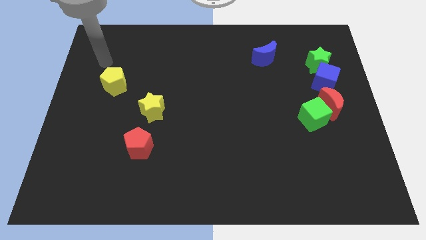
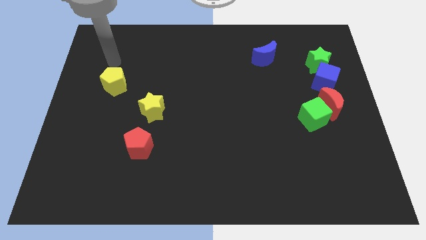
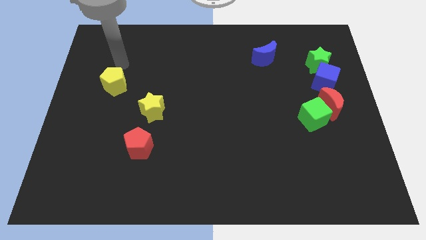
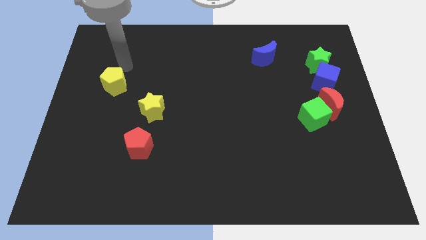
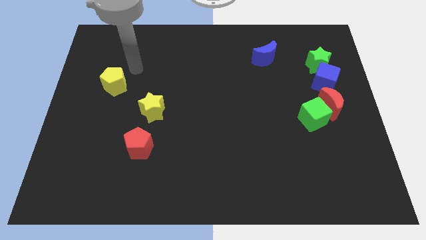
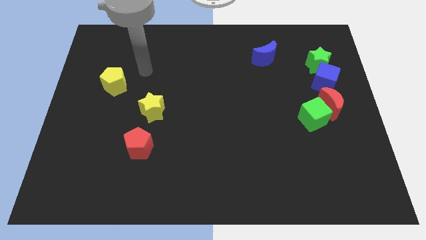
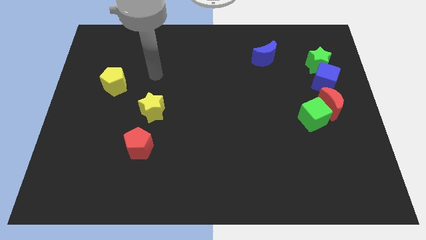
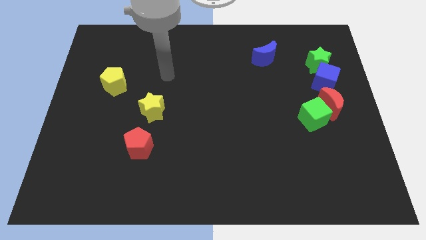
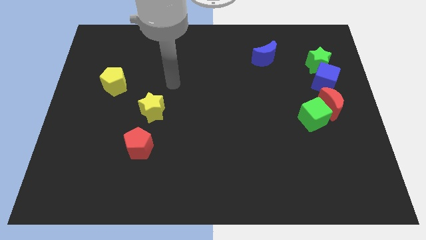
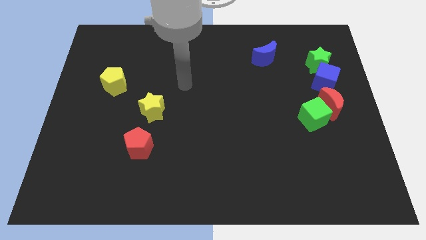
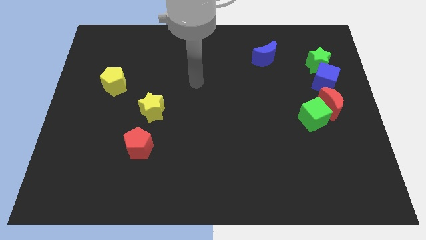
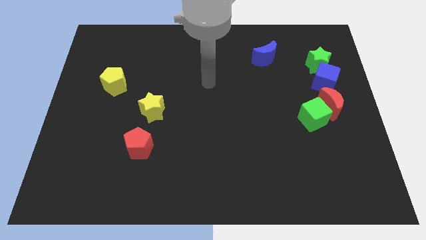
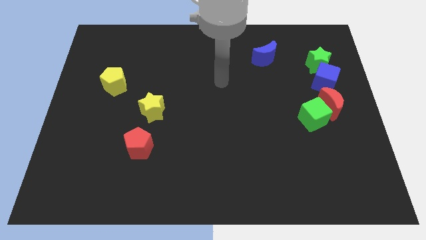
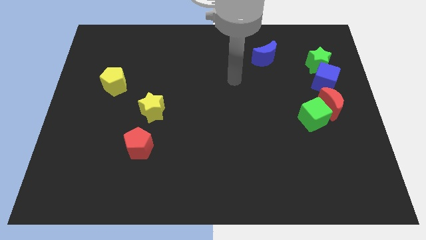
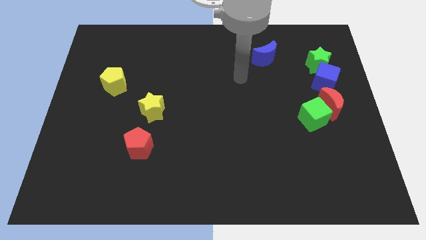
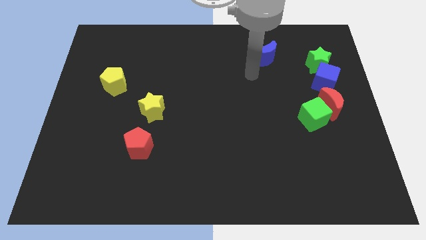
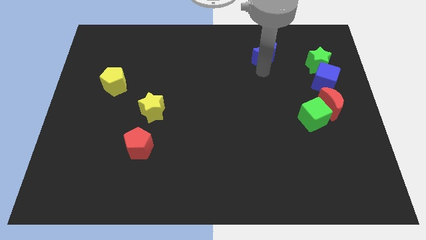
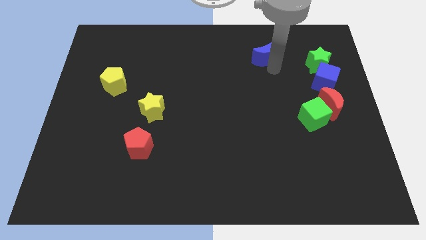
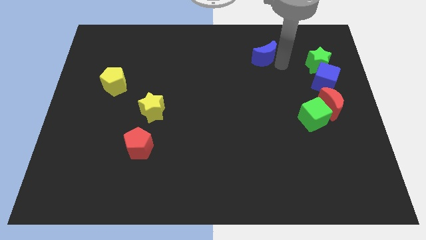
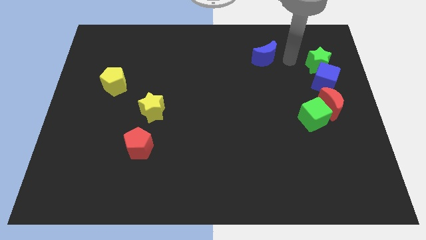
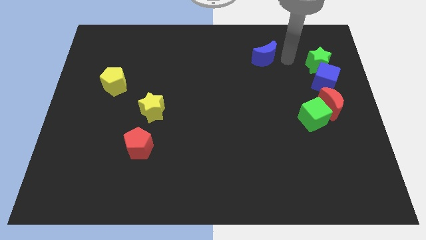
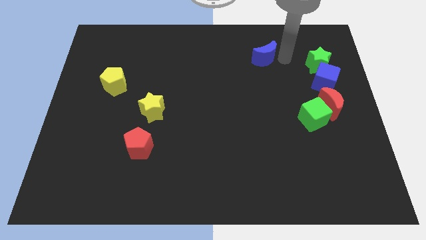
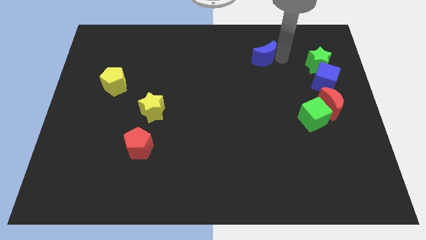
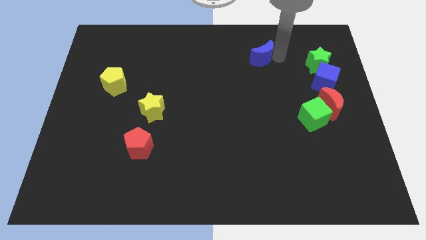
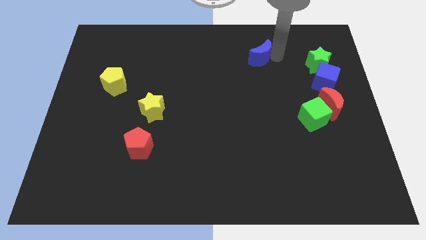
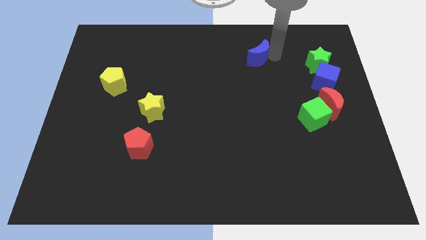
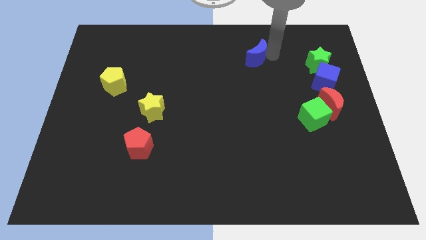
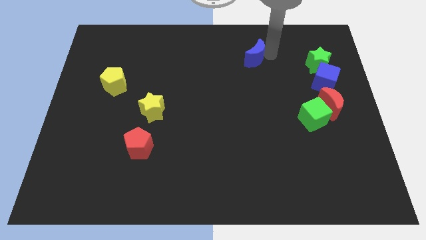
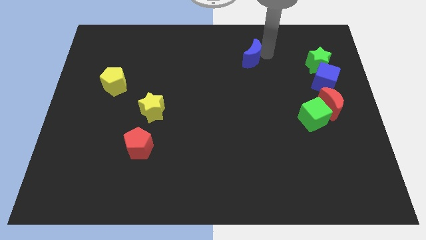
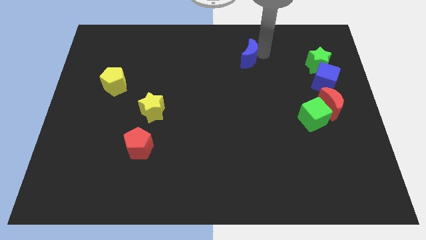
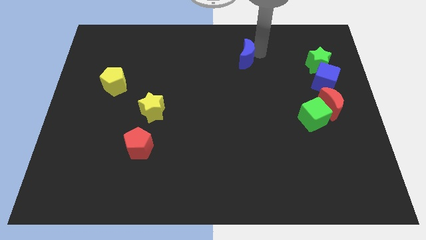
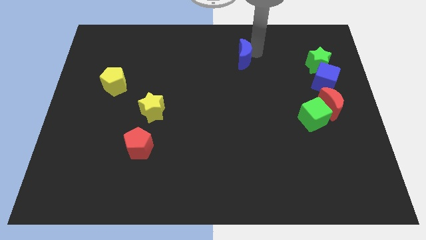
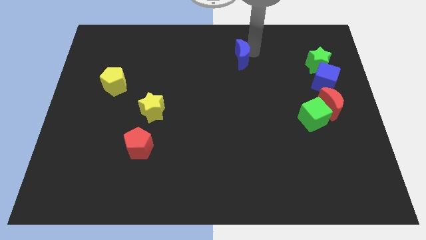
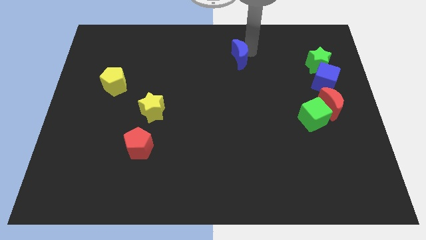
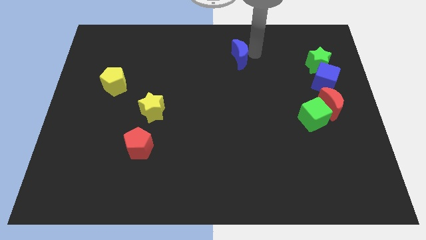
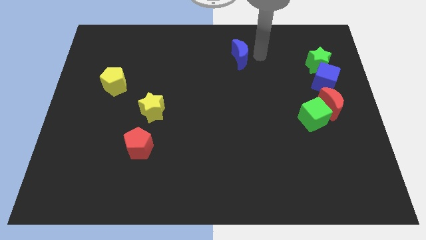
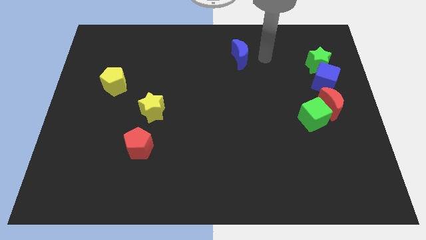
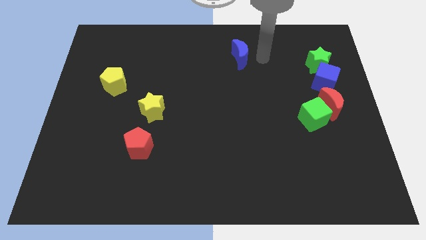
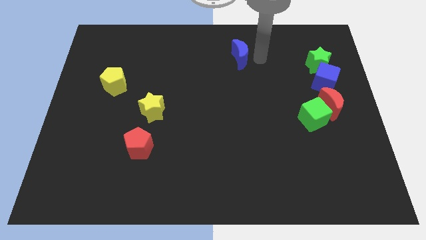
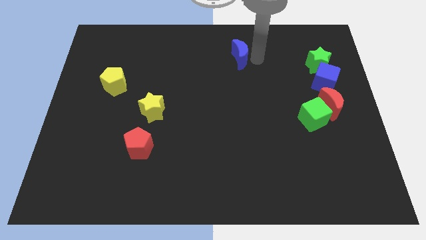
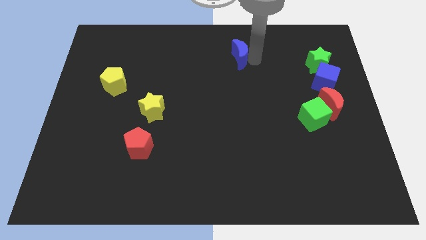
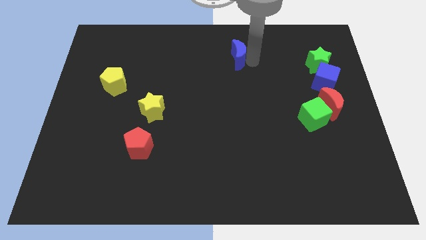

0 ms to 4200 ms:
slide the blue moon a little bit to the left

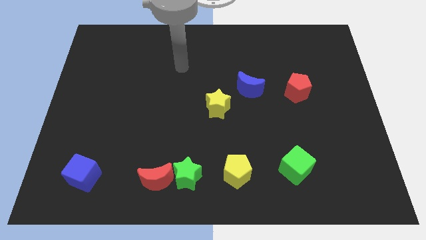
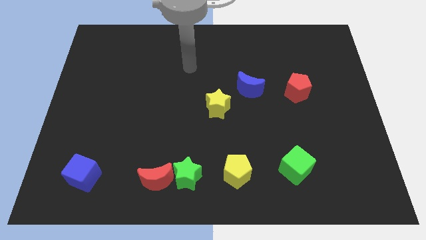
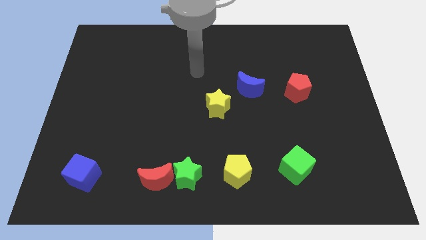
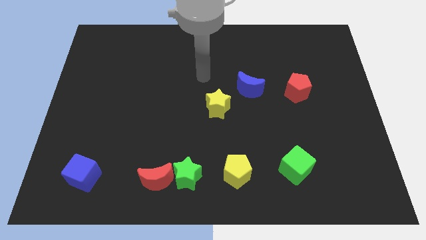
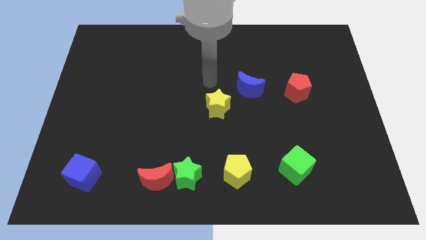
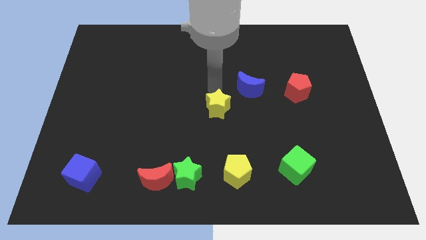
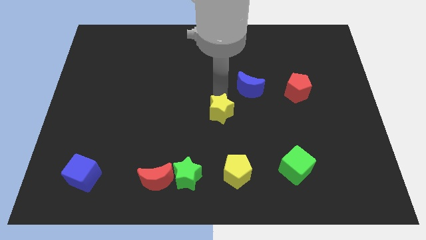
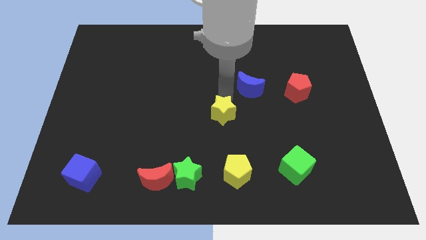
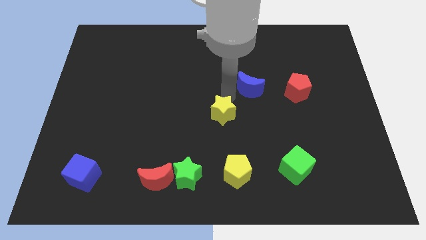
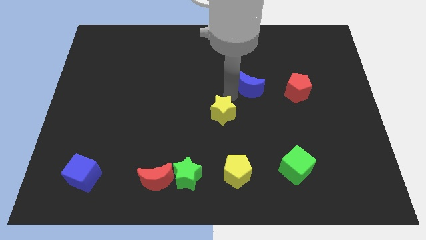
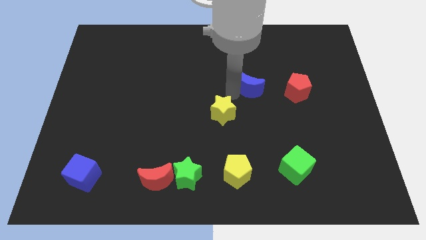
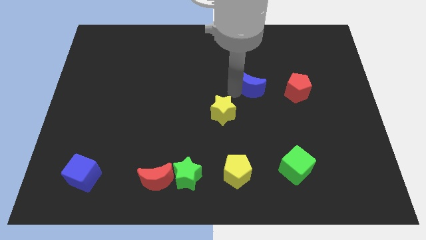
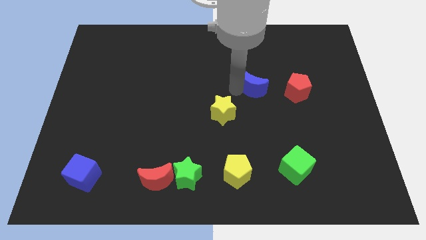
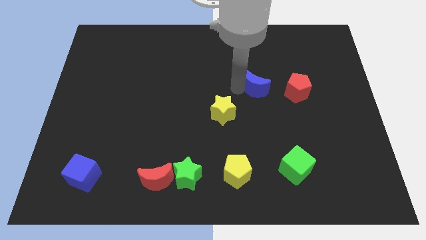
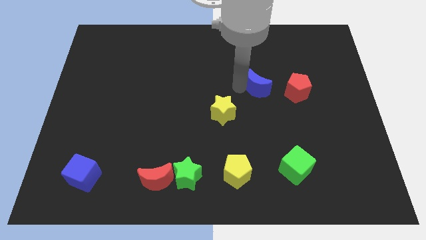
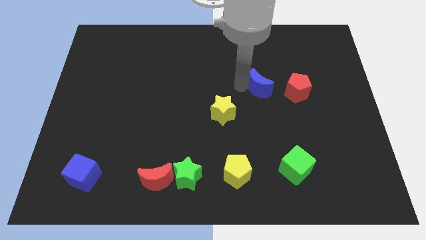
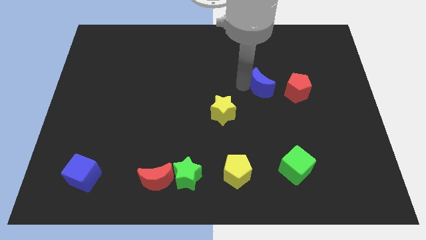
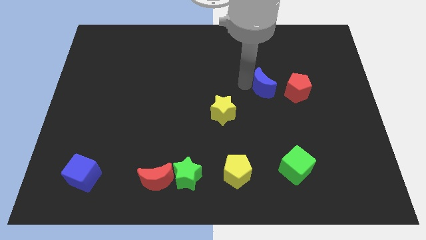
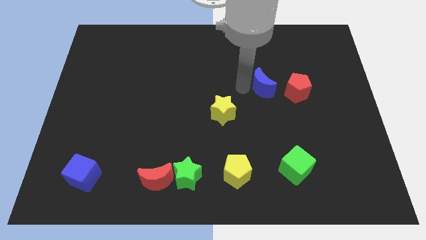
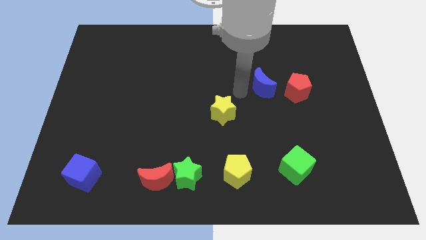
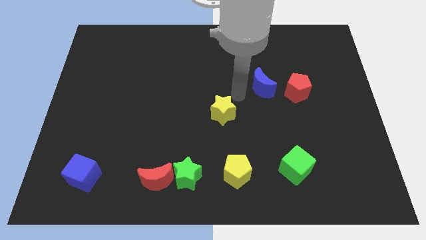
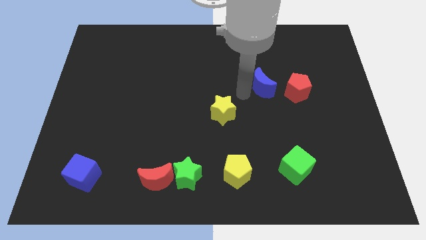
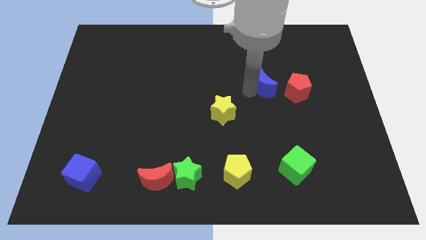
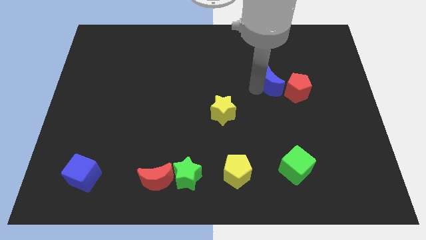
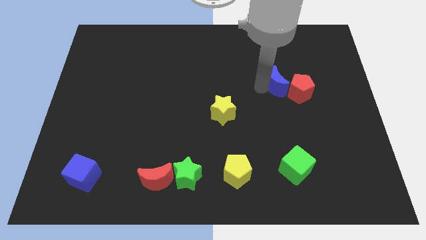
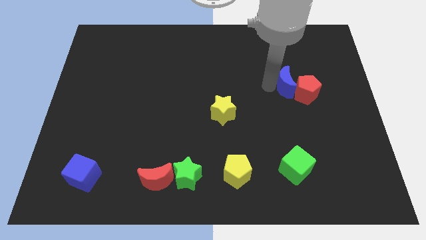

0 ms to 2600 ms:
push the blue moon a little bit to the right

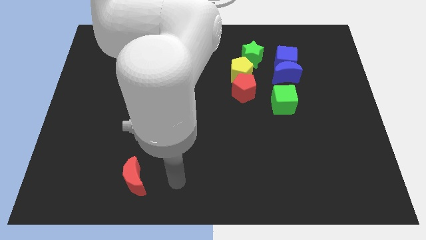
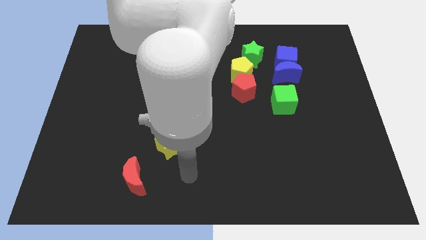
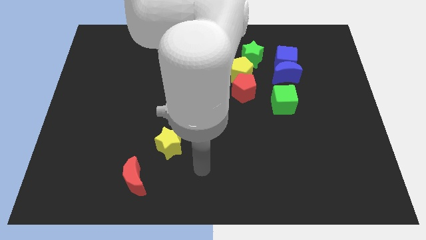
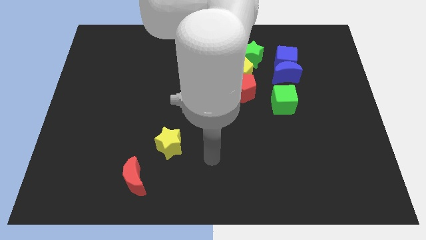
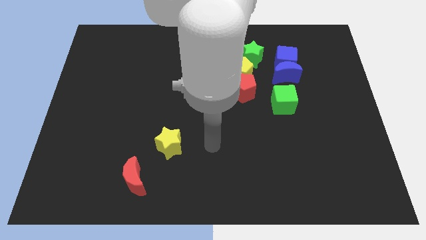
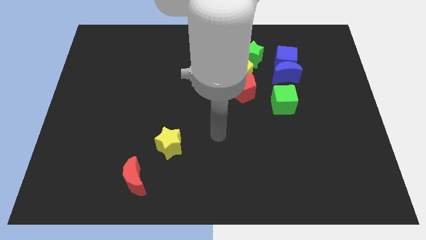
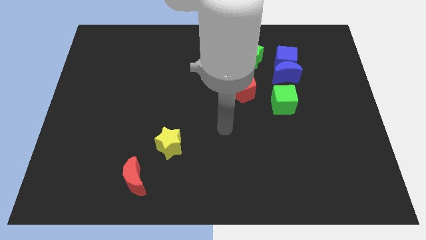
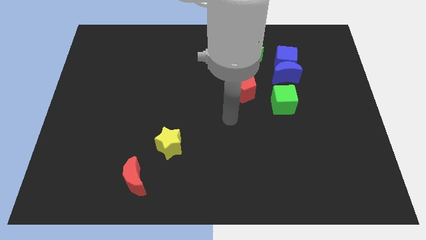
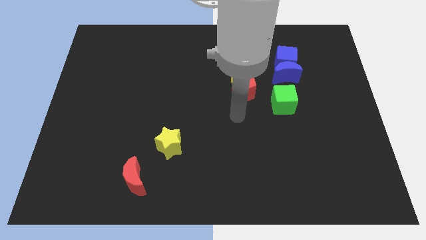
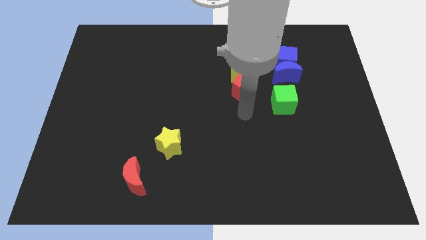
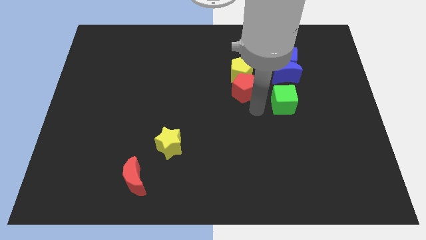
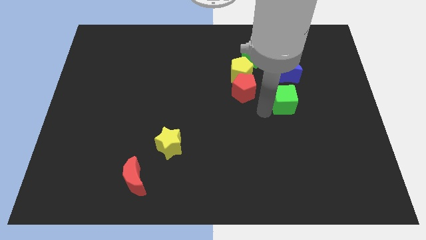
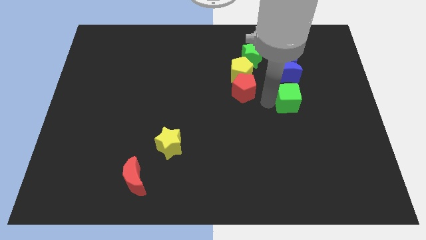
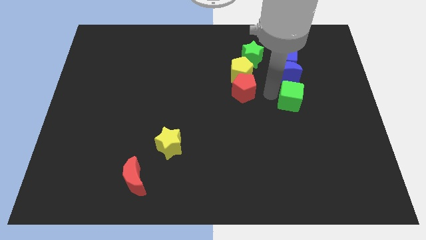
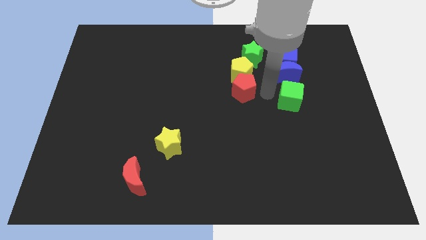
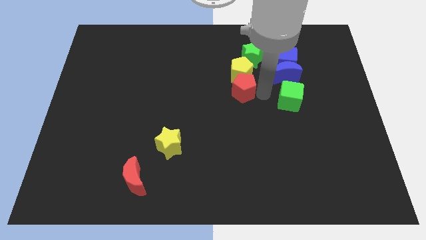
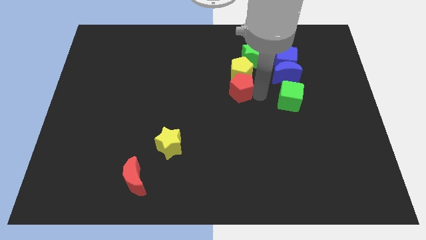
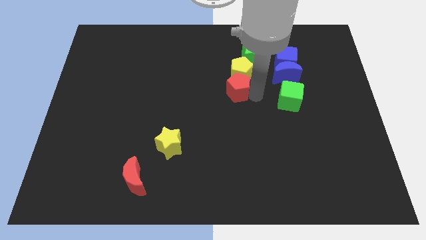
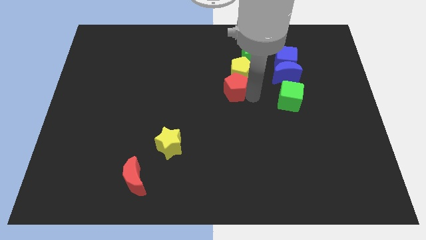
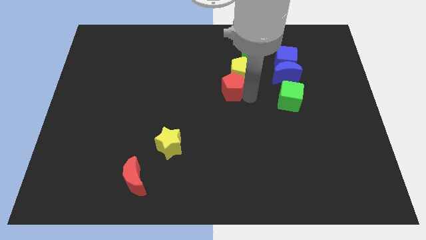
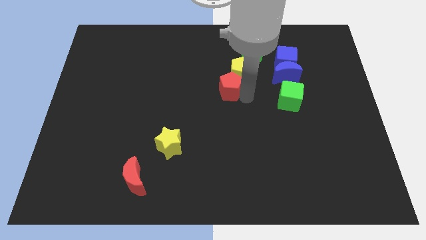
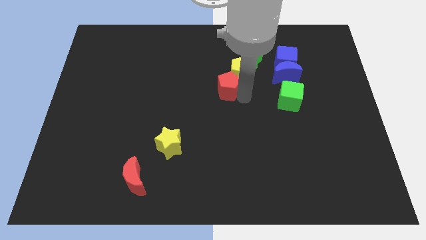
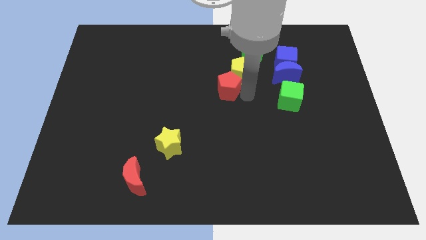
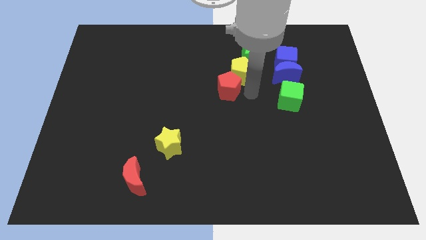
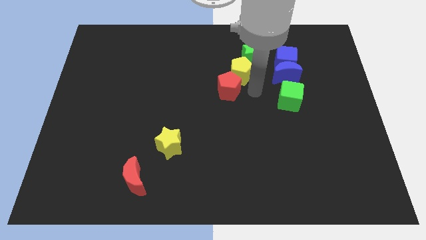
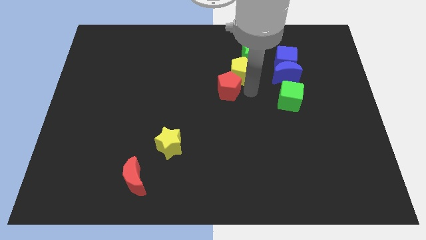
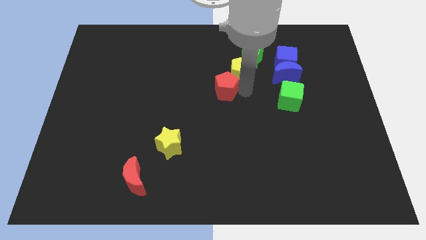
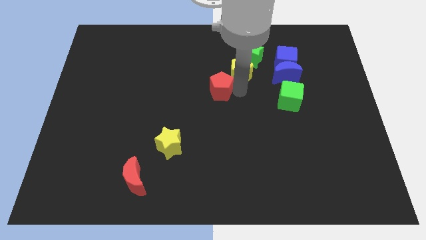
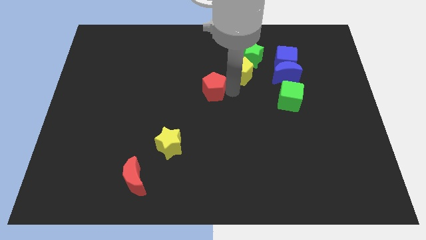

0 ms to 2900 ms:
push the red pentagon to the left somewhat
